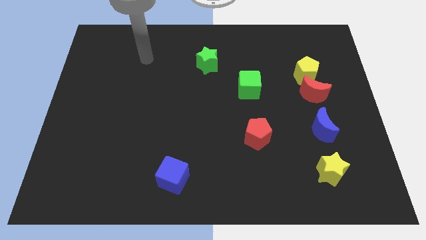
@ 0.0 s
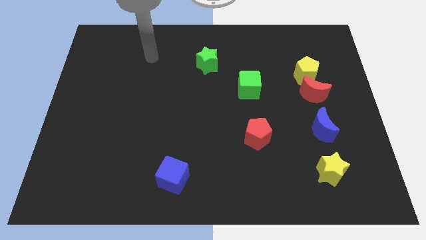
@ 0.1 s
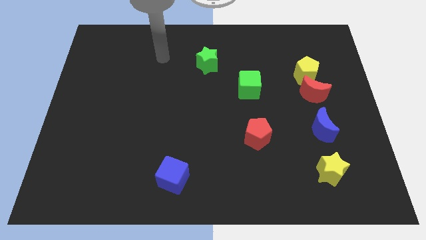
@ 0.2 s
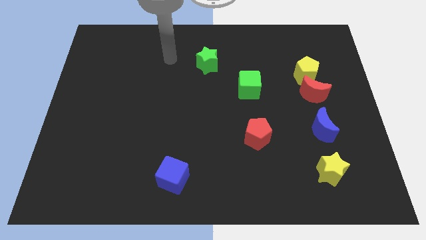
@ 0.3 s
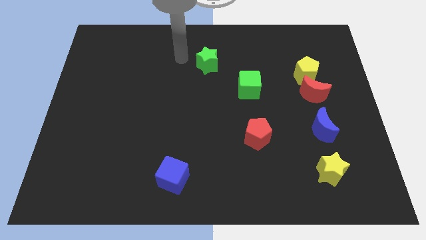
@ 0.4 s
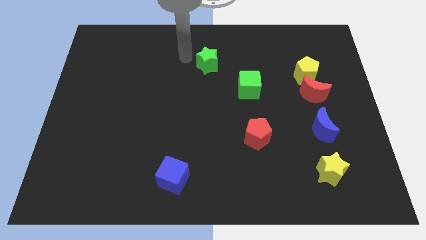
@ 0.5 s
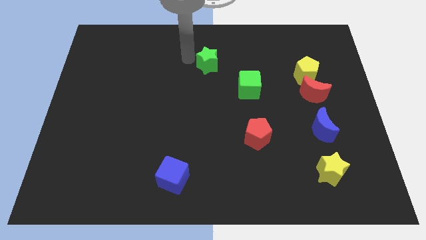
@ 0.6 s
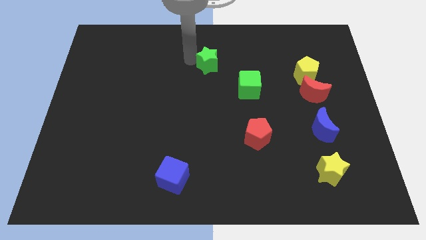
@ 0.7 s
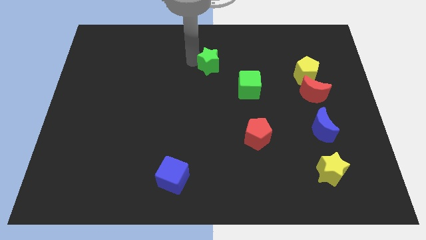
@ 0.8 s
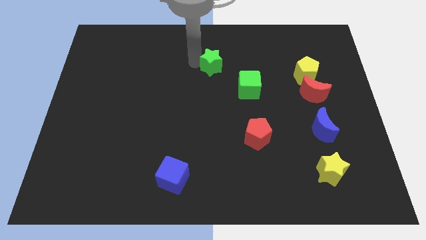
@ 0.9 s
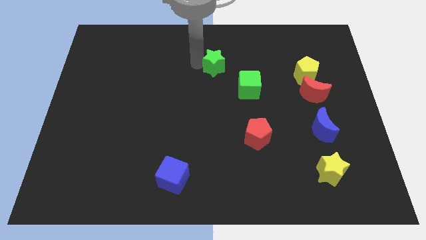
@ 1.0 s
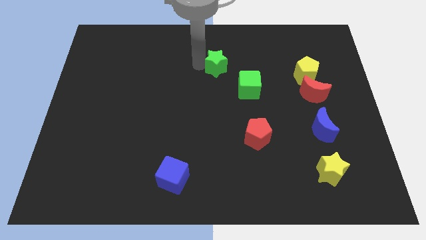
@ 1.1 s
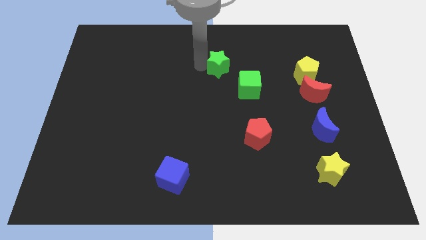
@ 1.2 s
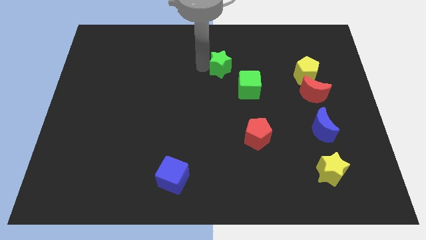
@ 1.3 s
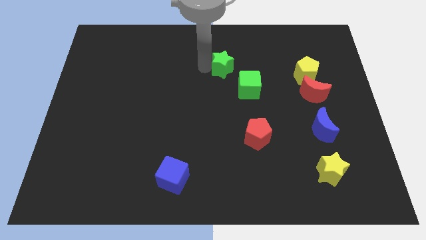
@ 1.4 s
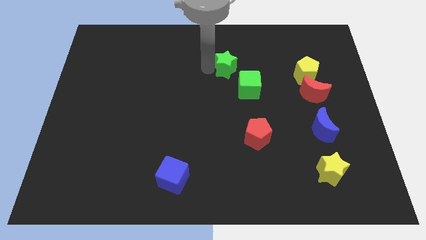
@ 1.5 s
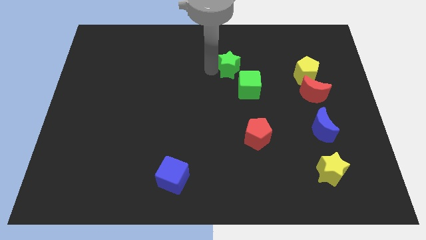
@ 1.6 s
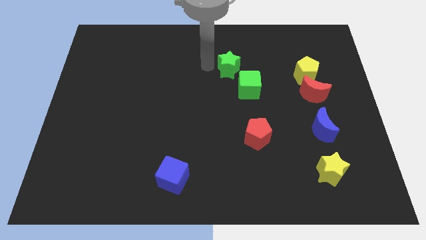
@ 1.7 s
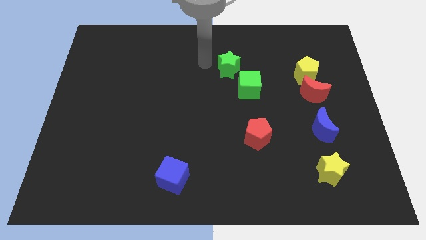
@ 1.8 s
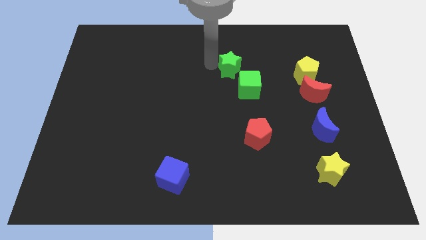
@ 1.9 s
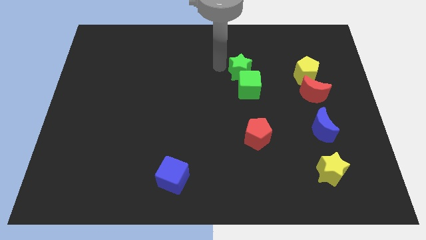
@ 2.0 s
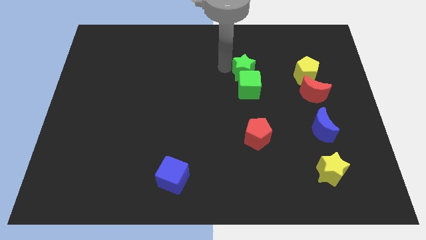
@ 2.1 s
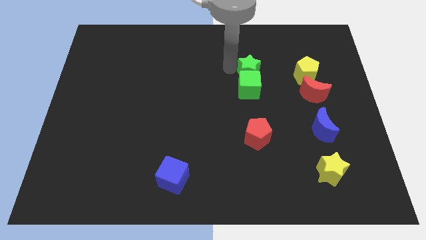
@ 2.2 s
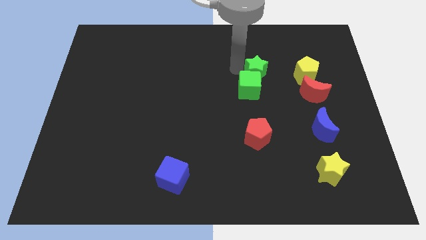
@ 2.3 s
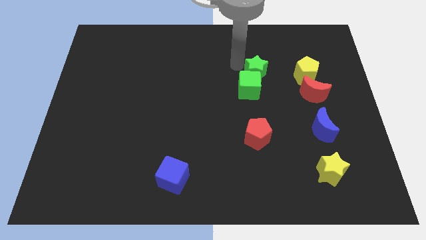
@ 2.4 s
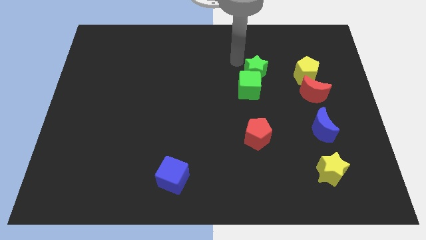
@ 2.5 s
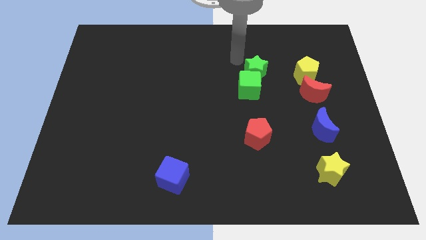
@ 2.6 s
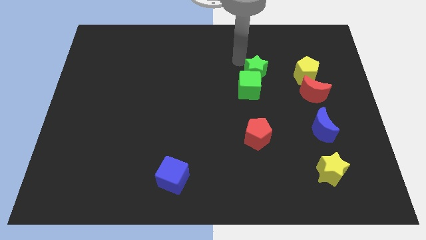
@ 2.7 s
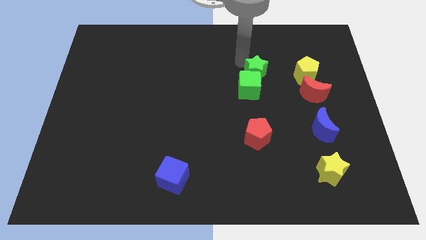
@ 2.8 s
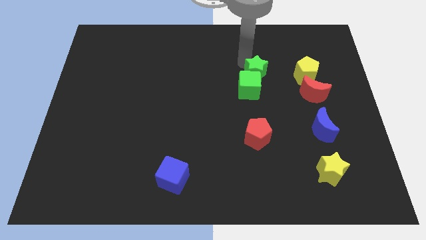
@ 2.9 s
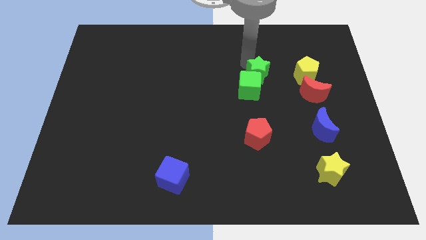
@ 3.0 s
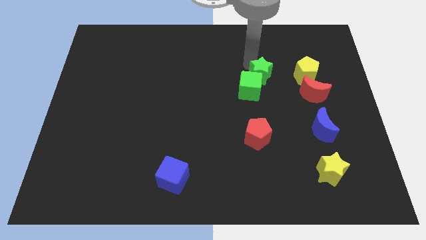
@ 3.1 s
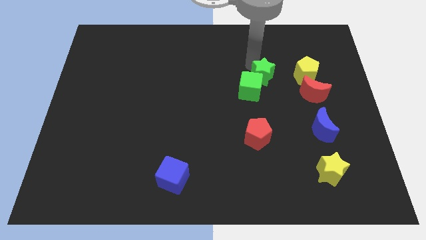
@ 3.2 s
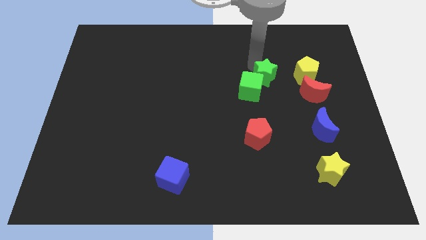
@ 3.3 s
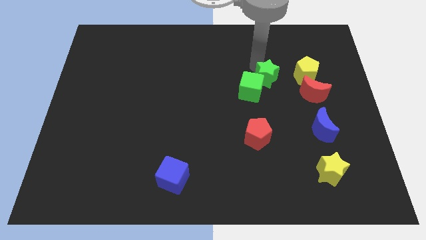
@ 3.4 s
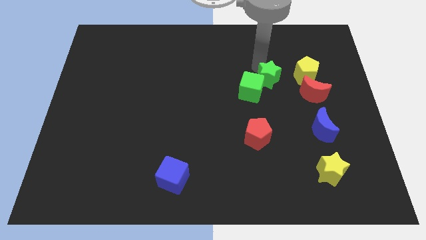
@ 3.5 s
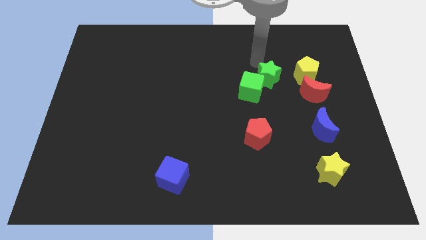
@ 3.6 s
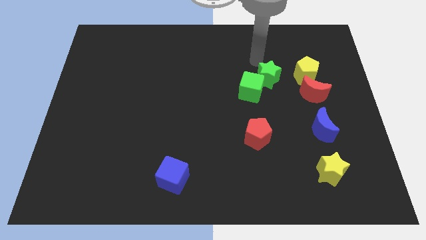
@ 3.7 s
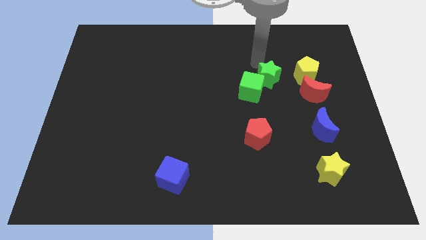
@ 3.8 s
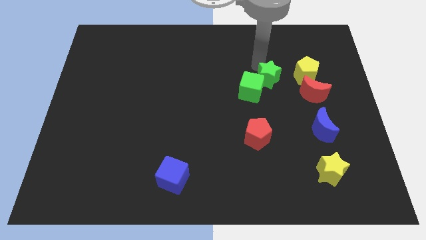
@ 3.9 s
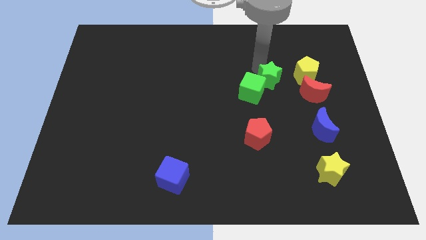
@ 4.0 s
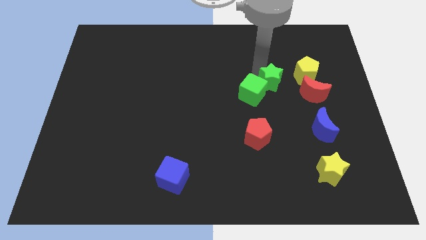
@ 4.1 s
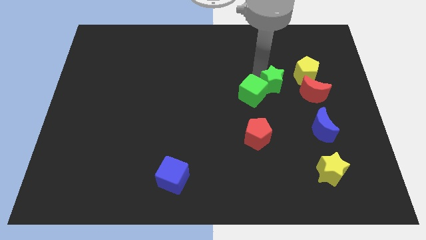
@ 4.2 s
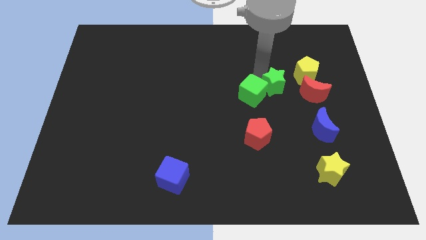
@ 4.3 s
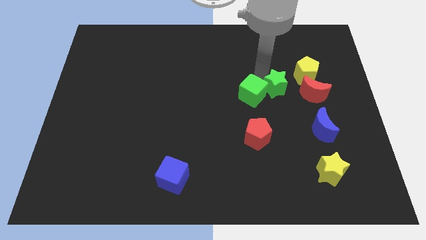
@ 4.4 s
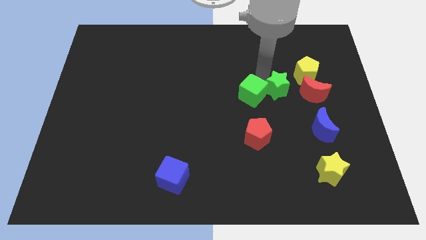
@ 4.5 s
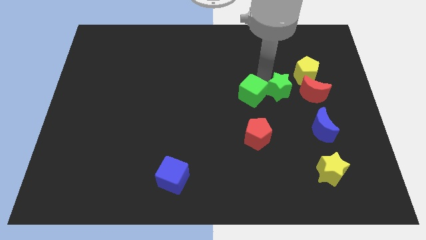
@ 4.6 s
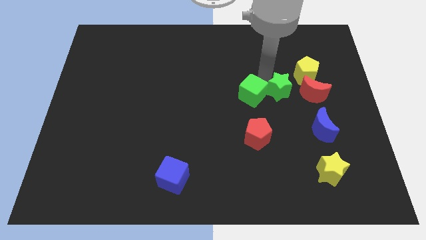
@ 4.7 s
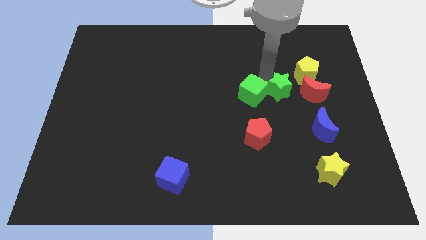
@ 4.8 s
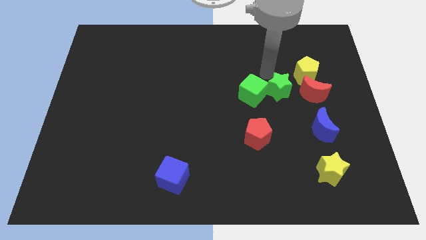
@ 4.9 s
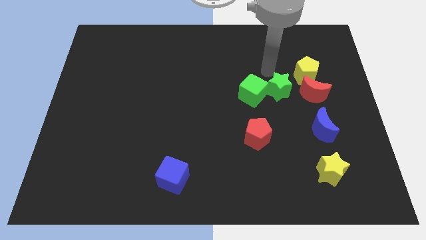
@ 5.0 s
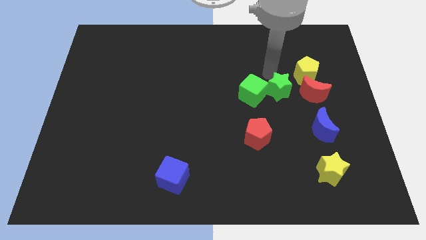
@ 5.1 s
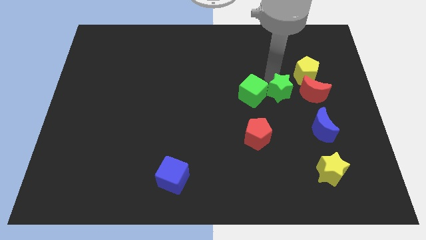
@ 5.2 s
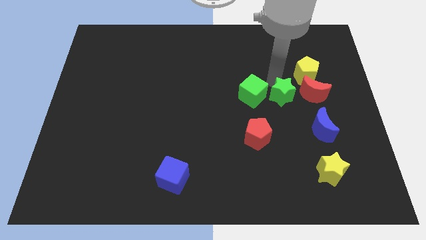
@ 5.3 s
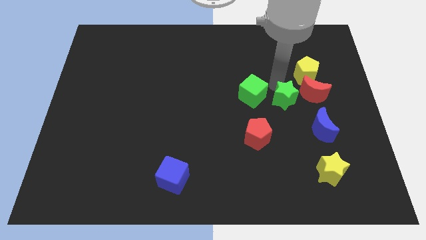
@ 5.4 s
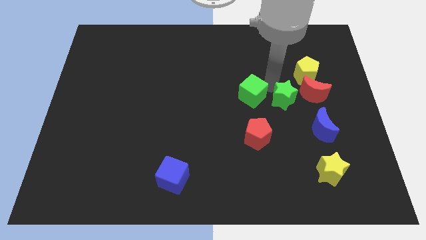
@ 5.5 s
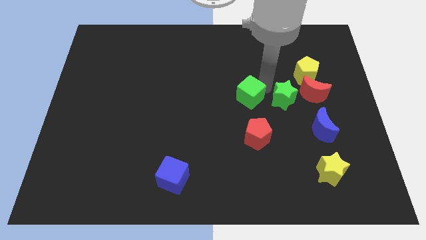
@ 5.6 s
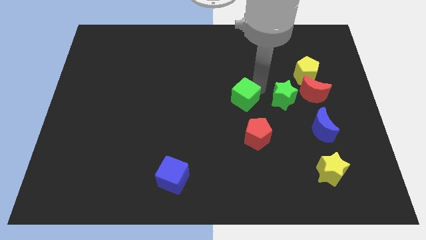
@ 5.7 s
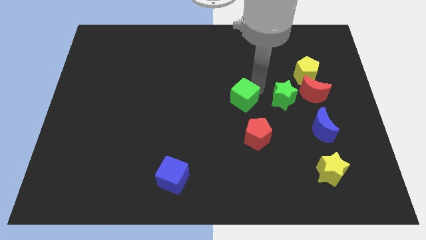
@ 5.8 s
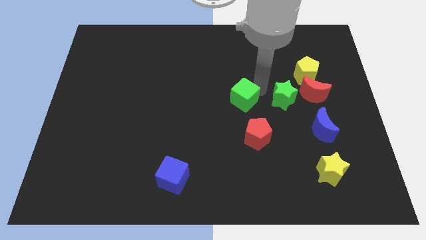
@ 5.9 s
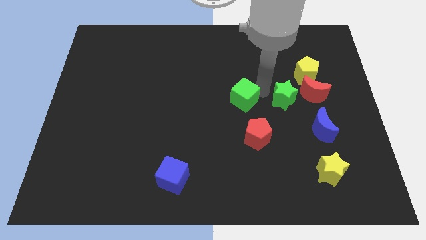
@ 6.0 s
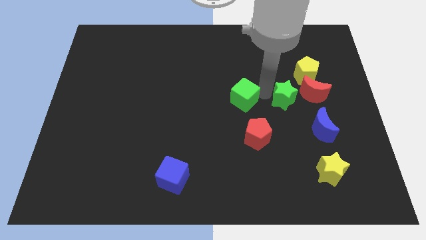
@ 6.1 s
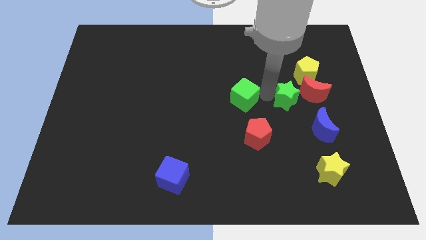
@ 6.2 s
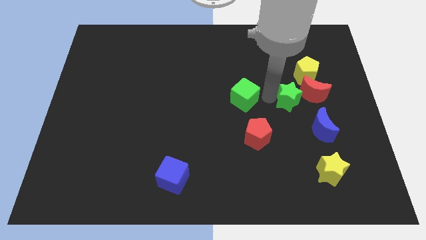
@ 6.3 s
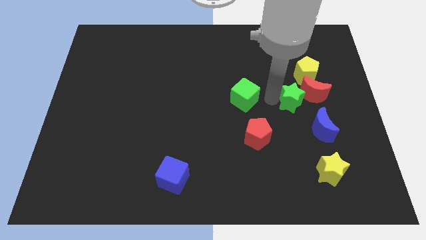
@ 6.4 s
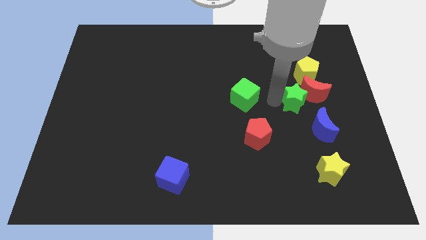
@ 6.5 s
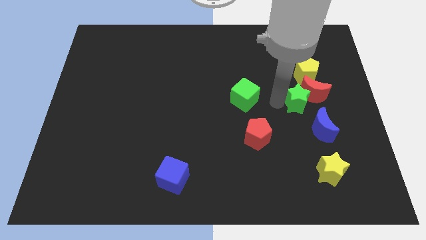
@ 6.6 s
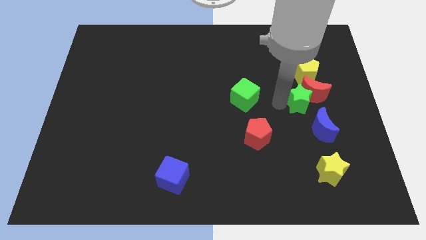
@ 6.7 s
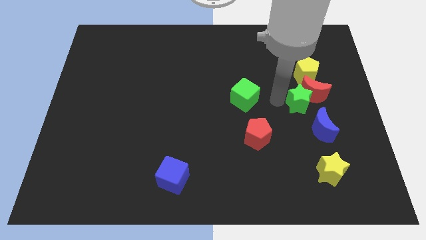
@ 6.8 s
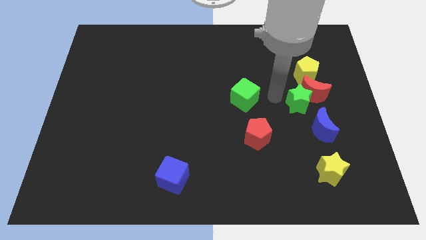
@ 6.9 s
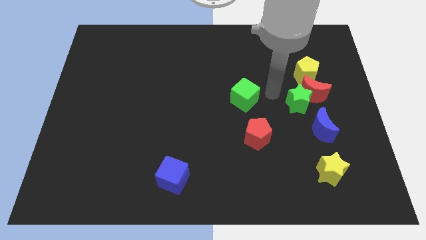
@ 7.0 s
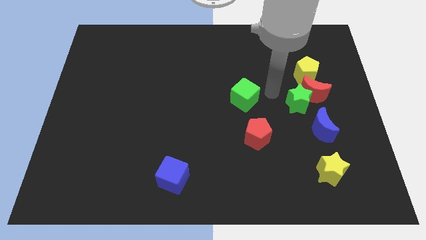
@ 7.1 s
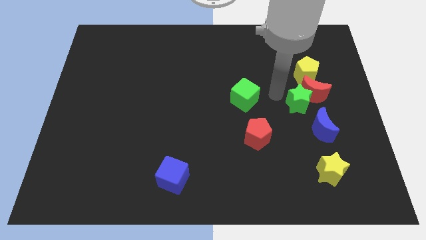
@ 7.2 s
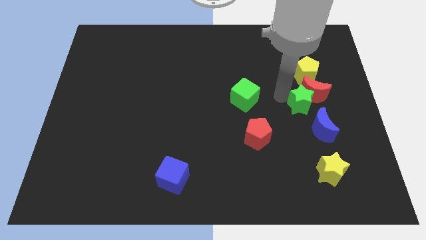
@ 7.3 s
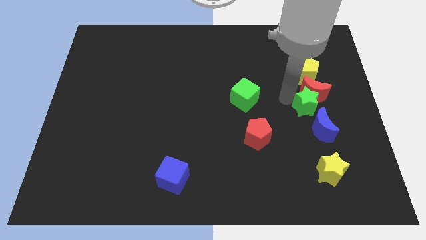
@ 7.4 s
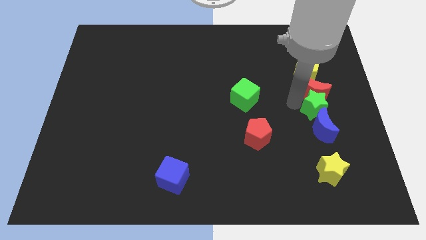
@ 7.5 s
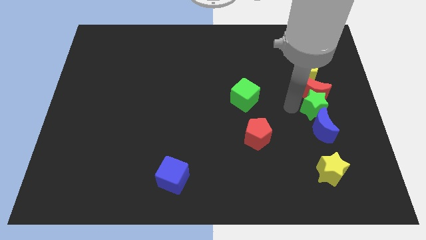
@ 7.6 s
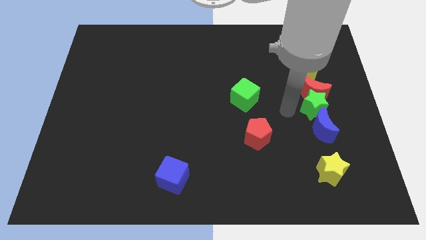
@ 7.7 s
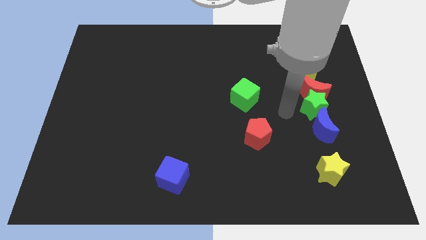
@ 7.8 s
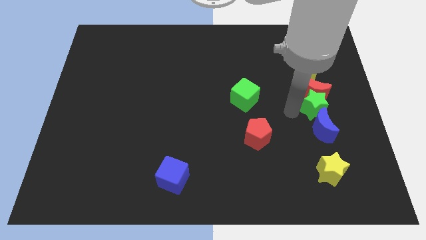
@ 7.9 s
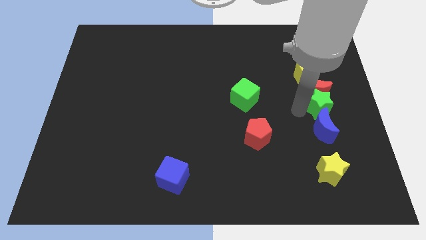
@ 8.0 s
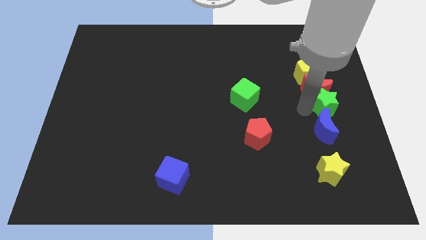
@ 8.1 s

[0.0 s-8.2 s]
slide the green star to the right side of the board
